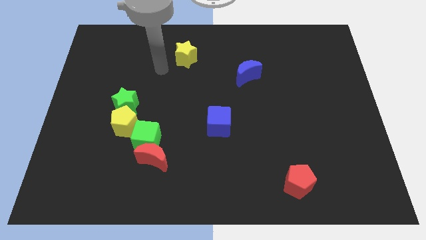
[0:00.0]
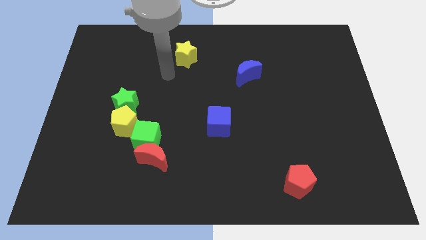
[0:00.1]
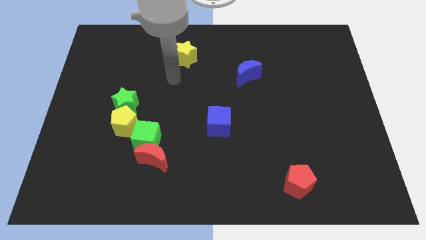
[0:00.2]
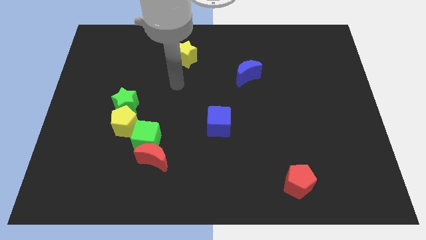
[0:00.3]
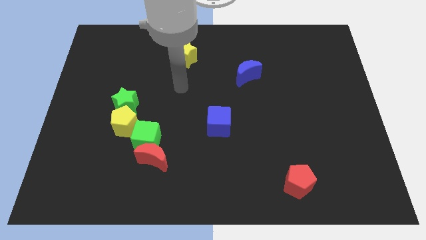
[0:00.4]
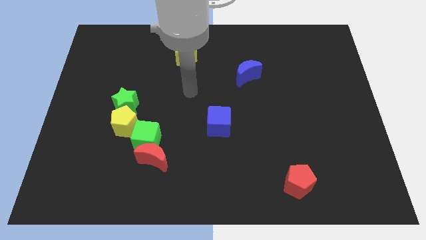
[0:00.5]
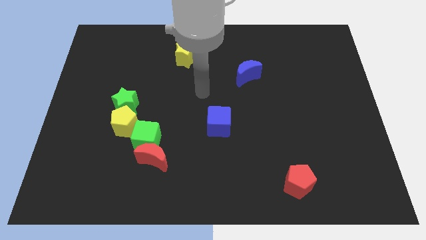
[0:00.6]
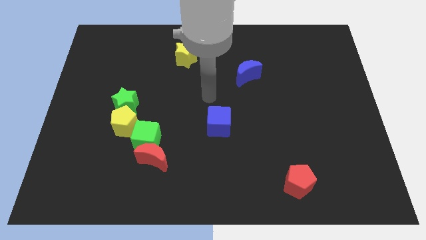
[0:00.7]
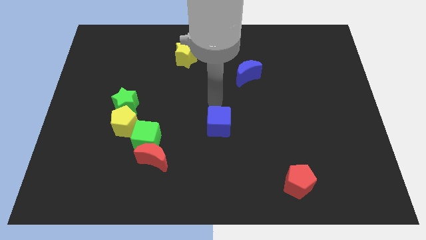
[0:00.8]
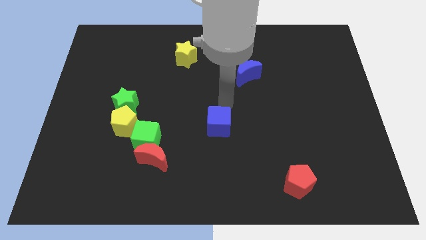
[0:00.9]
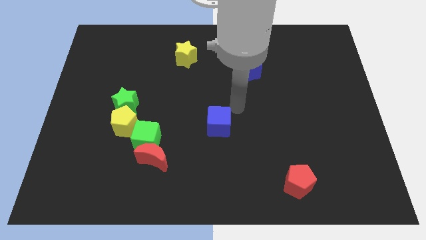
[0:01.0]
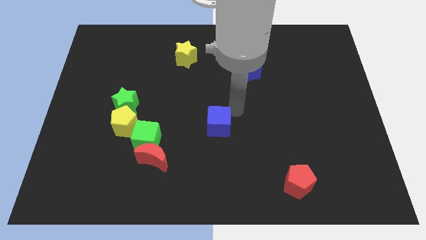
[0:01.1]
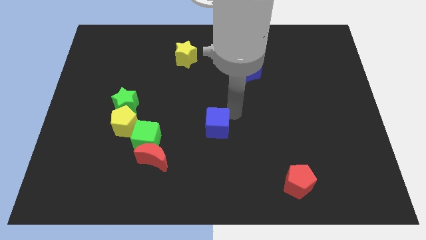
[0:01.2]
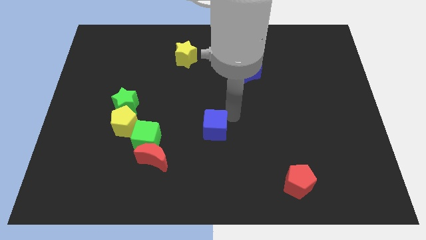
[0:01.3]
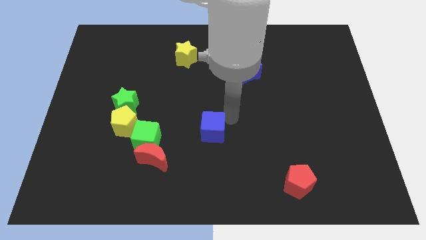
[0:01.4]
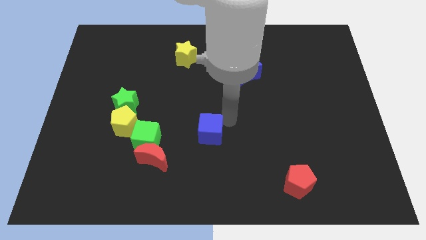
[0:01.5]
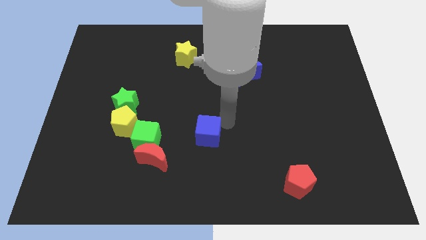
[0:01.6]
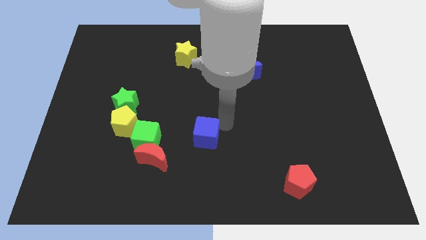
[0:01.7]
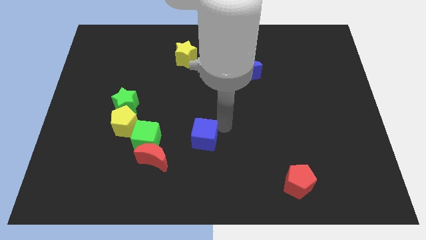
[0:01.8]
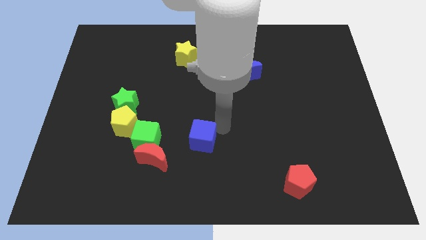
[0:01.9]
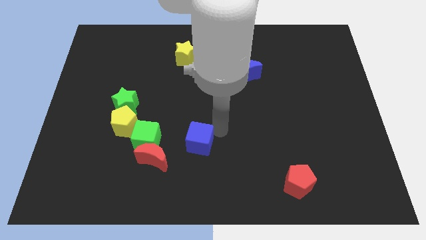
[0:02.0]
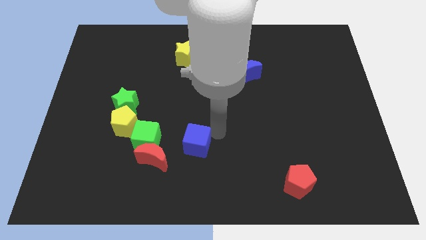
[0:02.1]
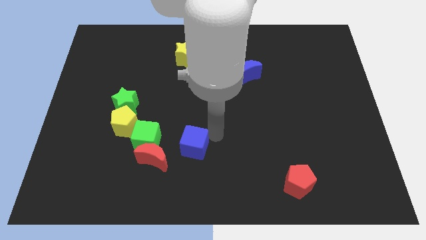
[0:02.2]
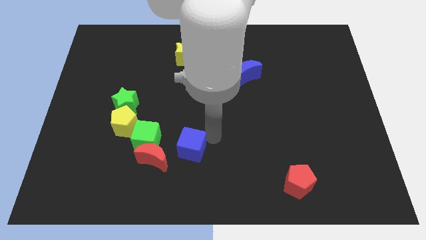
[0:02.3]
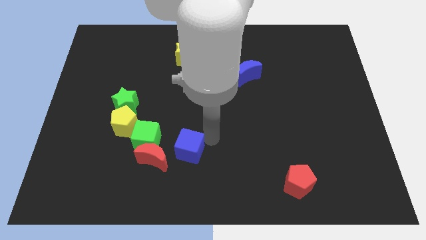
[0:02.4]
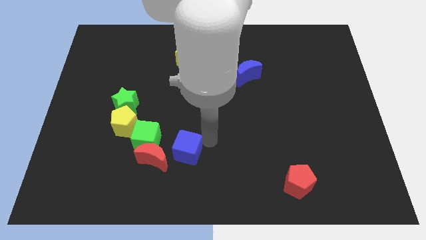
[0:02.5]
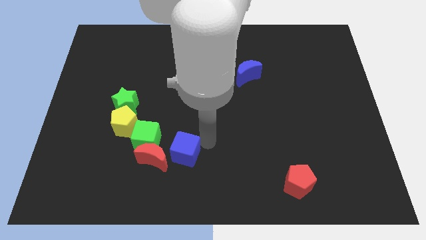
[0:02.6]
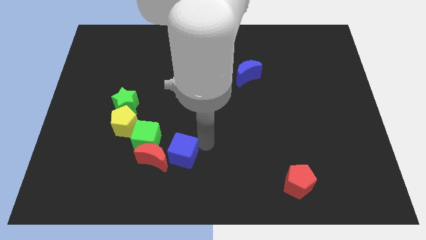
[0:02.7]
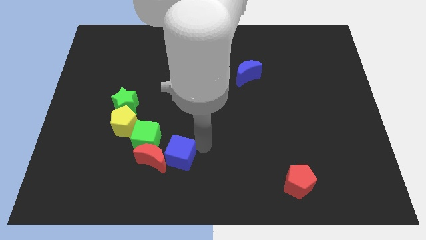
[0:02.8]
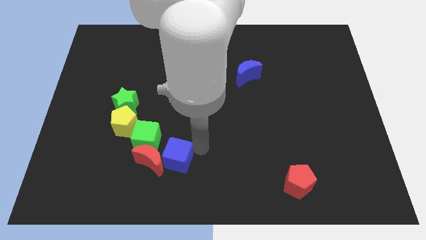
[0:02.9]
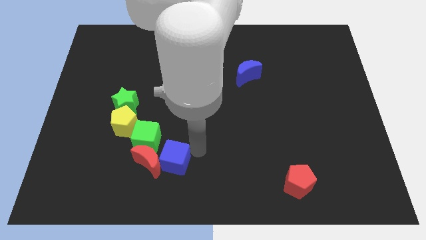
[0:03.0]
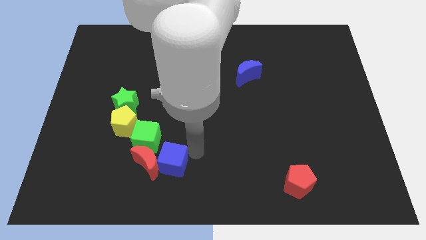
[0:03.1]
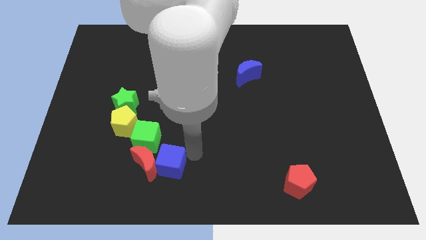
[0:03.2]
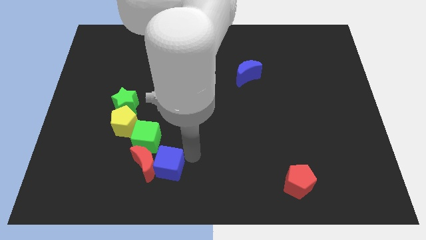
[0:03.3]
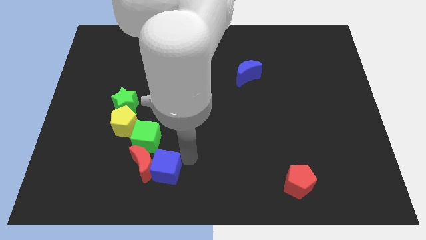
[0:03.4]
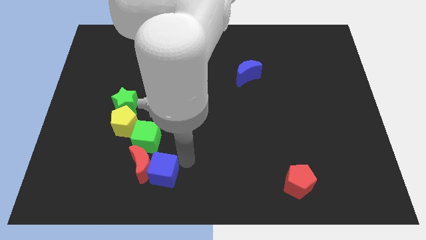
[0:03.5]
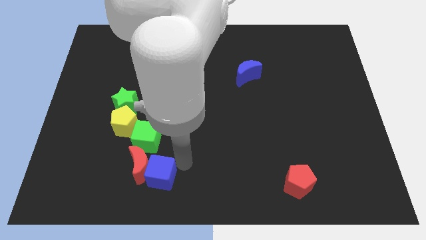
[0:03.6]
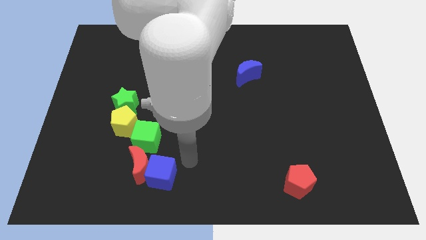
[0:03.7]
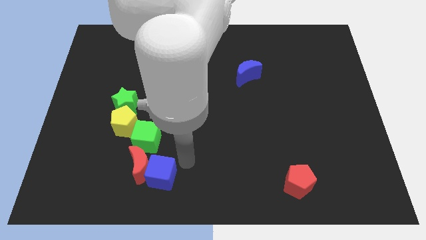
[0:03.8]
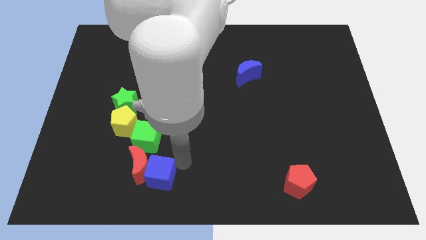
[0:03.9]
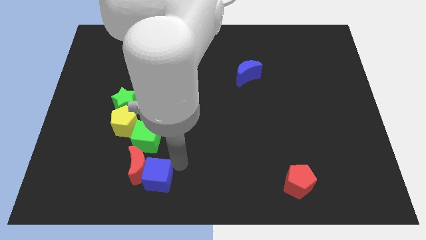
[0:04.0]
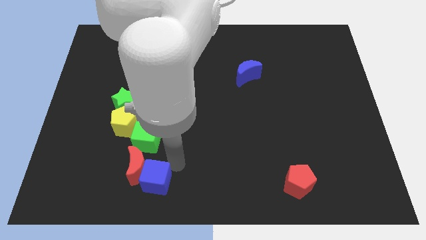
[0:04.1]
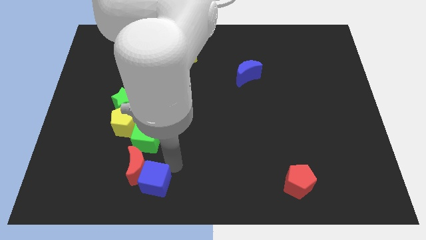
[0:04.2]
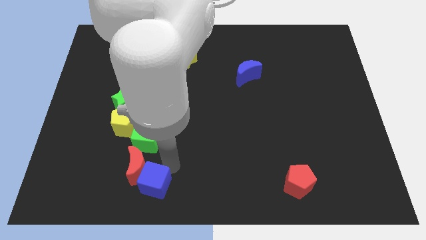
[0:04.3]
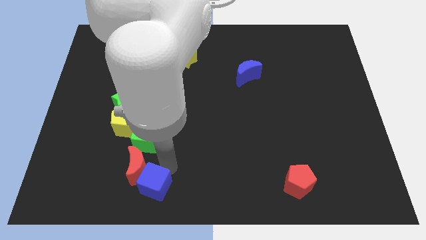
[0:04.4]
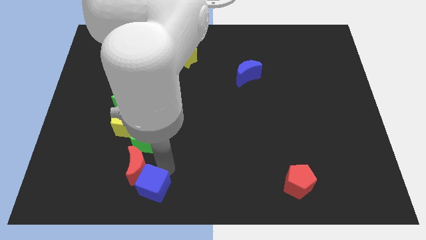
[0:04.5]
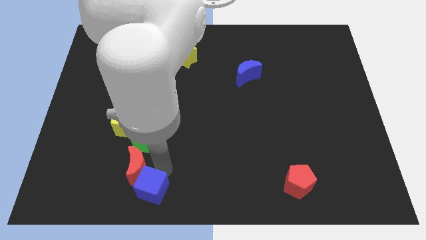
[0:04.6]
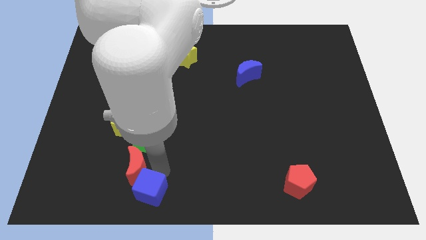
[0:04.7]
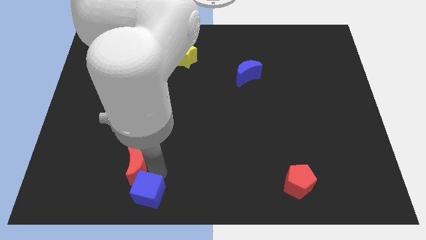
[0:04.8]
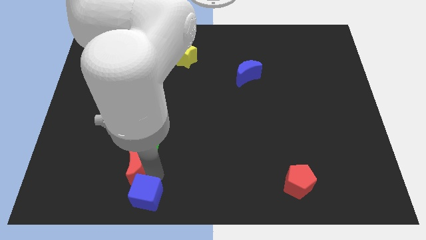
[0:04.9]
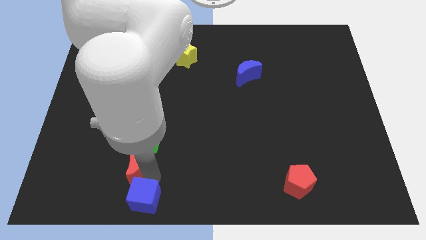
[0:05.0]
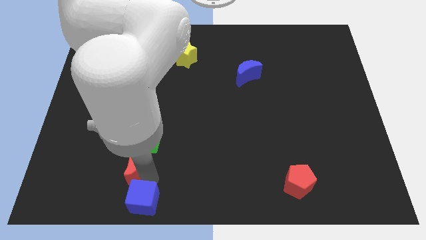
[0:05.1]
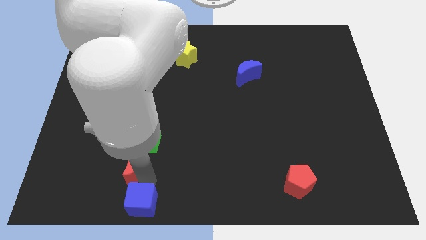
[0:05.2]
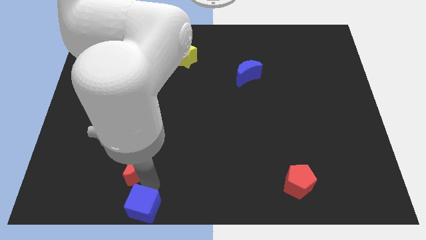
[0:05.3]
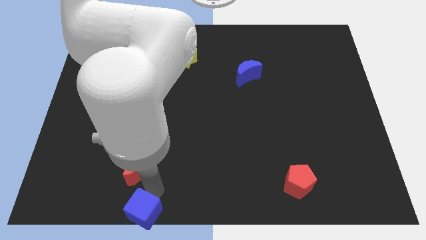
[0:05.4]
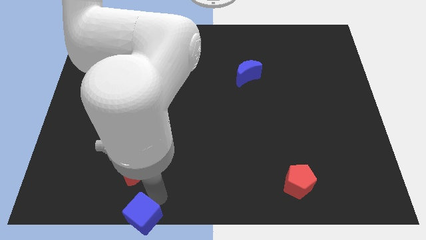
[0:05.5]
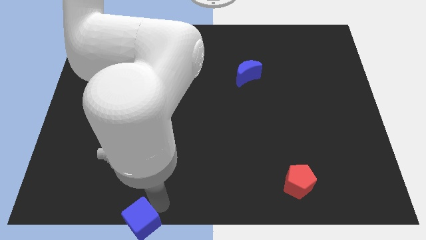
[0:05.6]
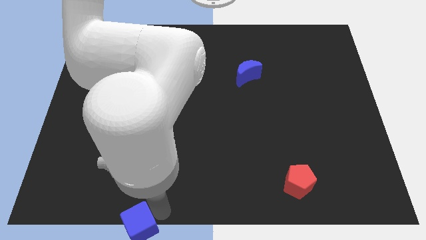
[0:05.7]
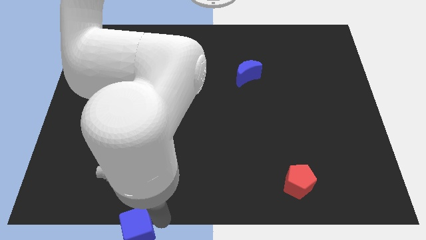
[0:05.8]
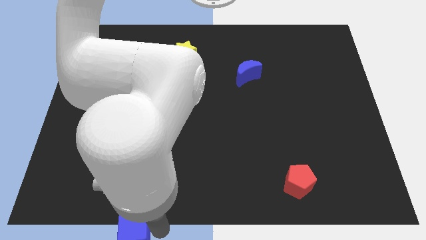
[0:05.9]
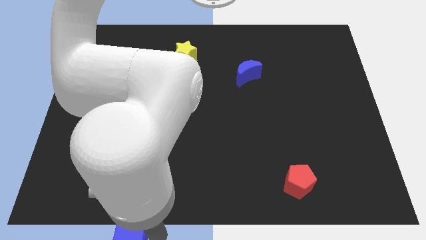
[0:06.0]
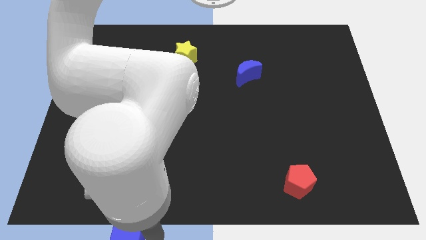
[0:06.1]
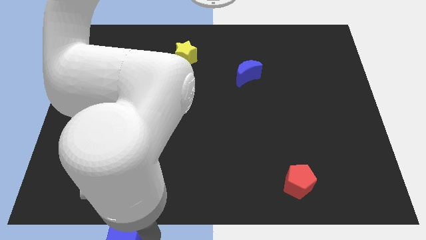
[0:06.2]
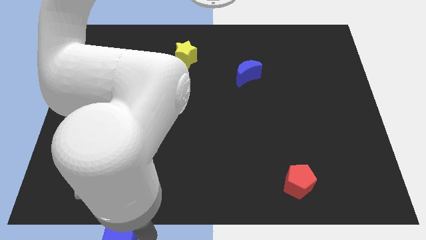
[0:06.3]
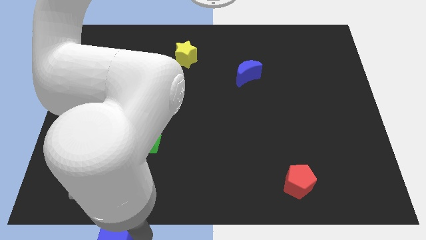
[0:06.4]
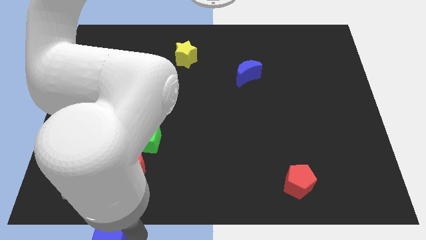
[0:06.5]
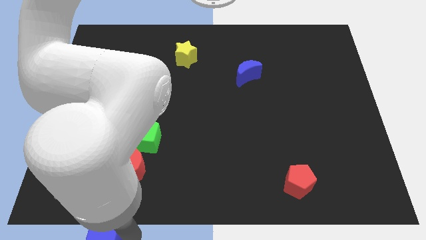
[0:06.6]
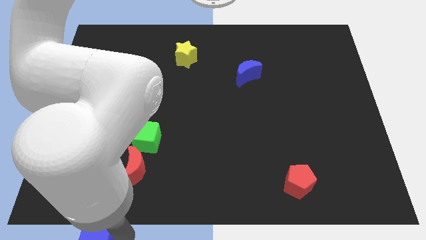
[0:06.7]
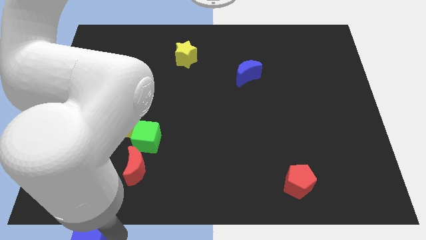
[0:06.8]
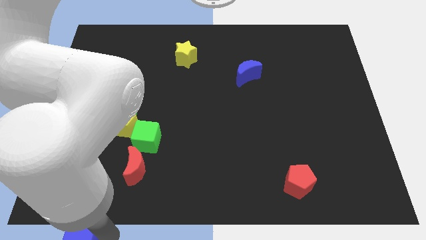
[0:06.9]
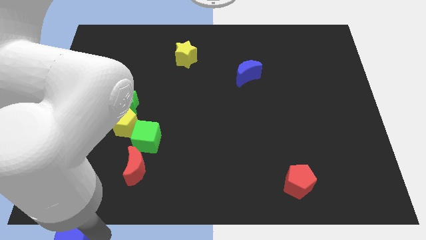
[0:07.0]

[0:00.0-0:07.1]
slide the blue cube to the bottom left corner
